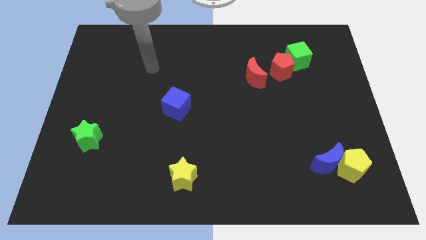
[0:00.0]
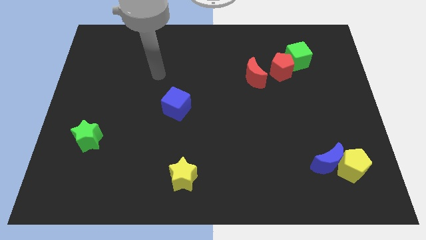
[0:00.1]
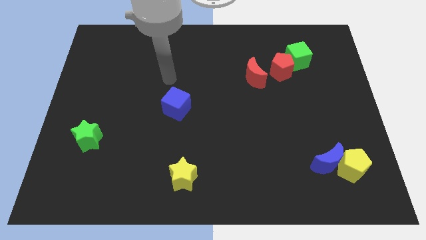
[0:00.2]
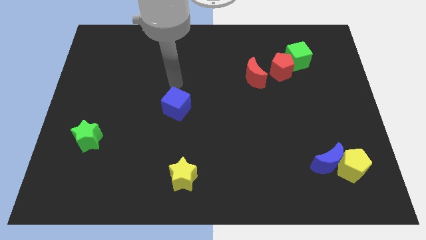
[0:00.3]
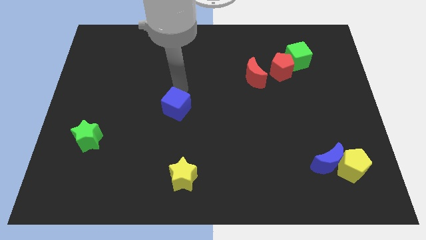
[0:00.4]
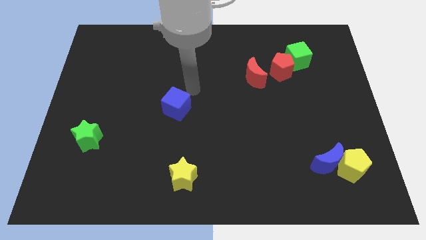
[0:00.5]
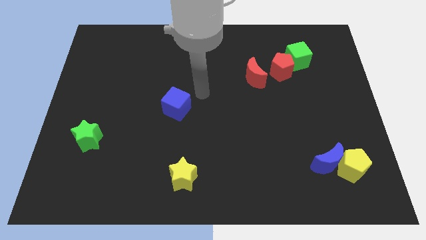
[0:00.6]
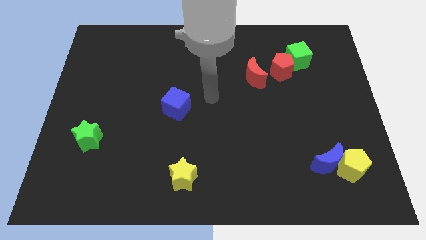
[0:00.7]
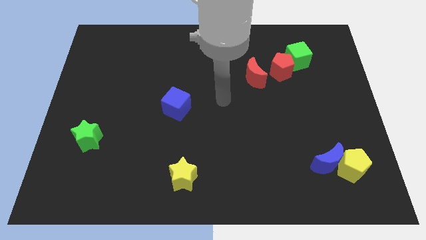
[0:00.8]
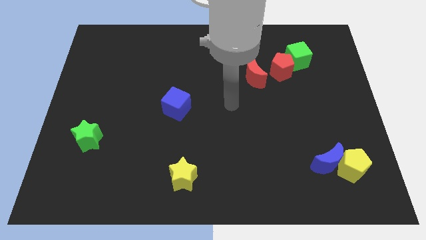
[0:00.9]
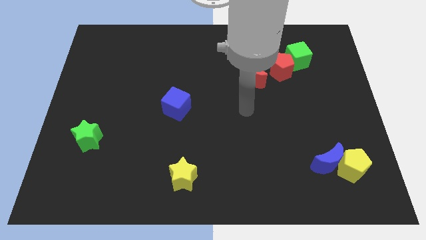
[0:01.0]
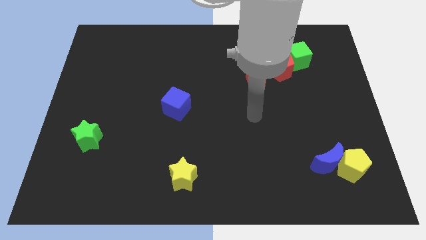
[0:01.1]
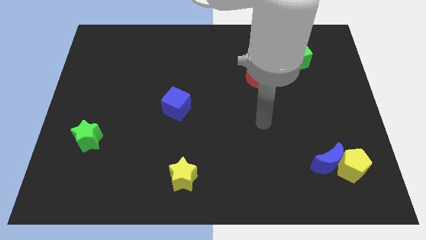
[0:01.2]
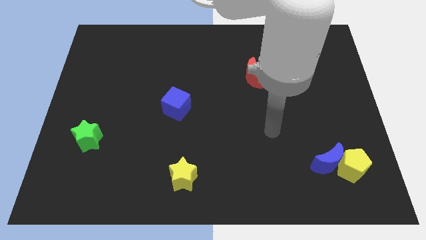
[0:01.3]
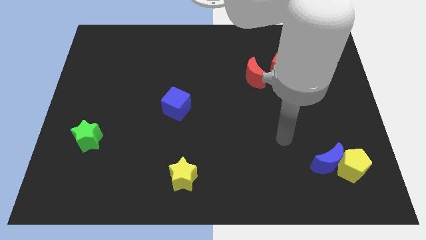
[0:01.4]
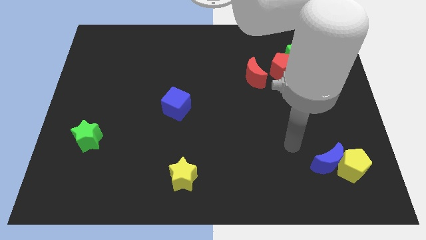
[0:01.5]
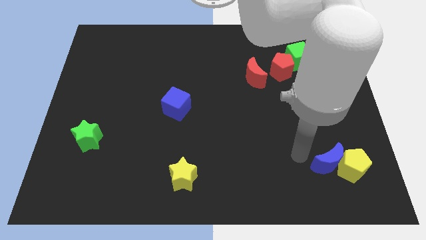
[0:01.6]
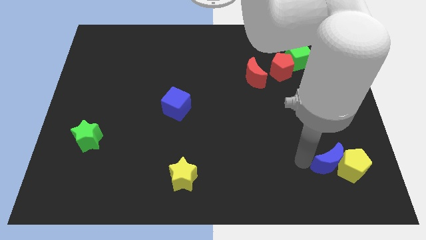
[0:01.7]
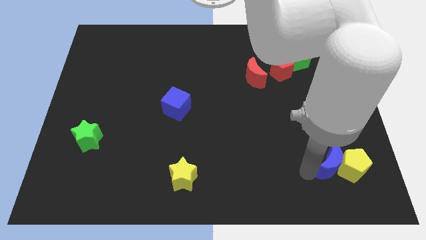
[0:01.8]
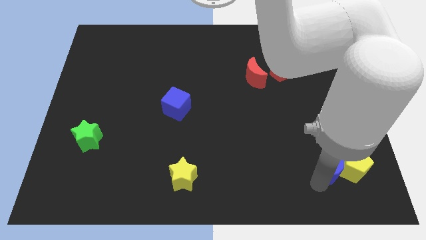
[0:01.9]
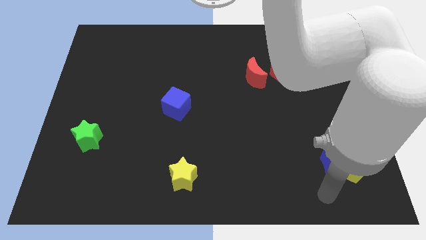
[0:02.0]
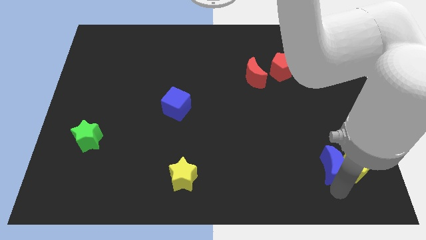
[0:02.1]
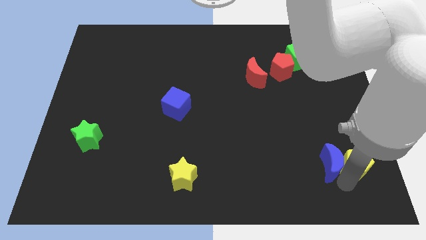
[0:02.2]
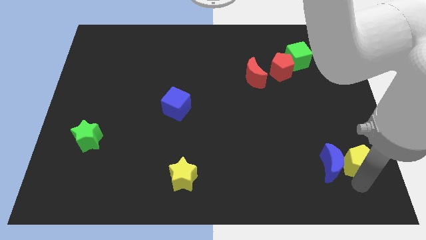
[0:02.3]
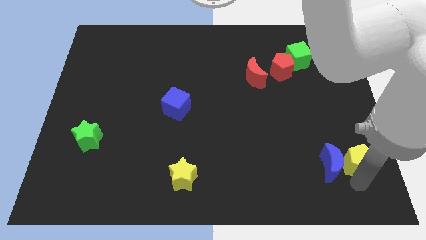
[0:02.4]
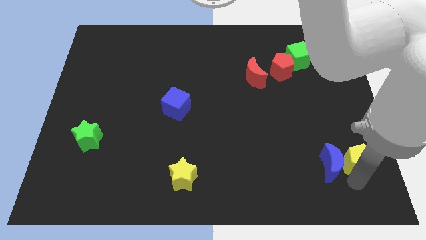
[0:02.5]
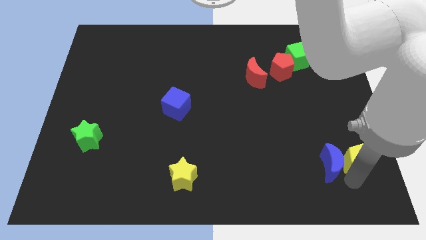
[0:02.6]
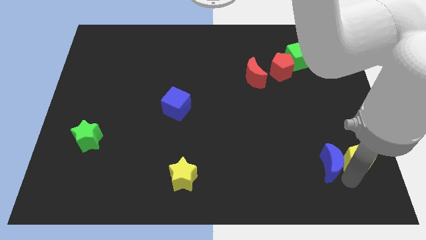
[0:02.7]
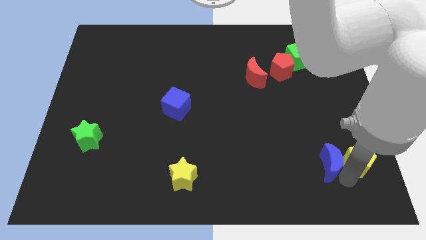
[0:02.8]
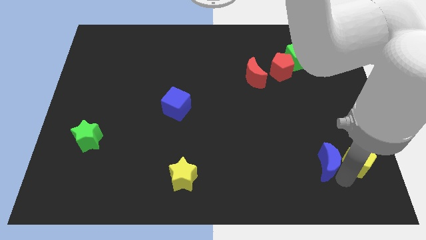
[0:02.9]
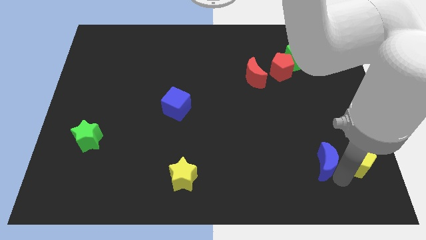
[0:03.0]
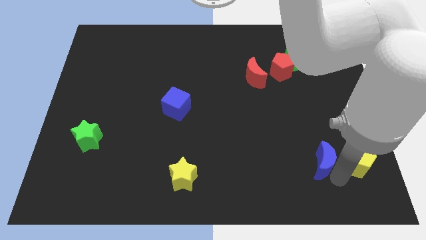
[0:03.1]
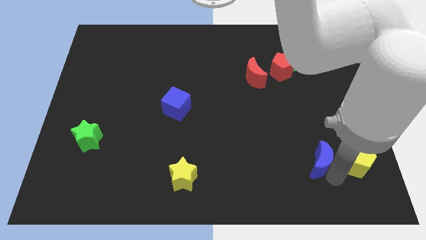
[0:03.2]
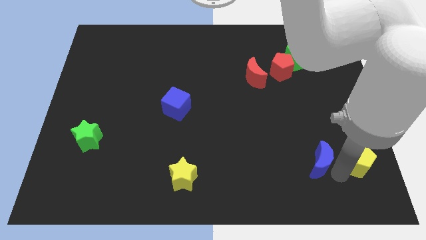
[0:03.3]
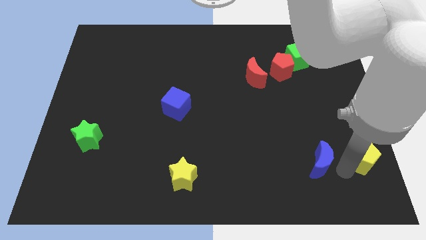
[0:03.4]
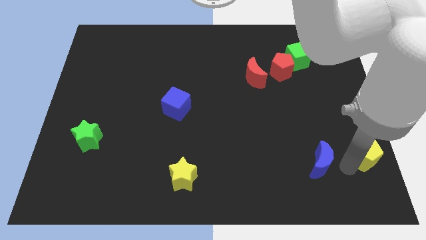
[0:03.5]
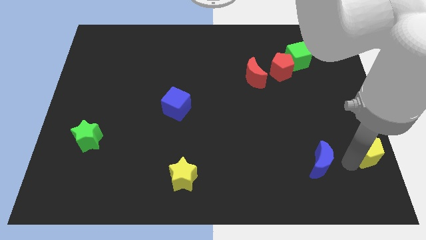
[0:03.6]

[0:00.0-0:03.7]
move the blue moon away from the yellow pentagon

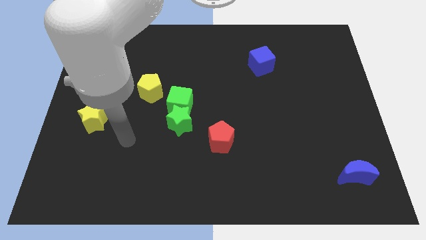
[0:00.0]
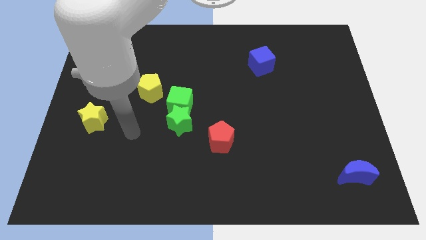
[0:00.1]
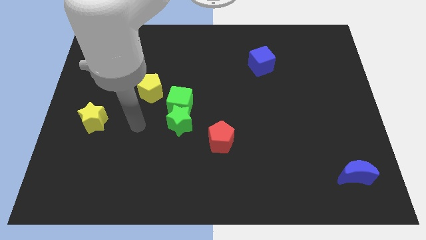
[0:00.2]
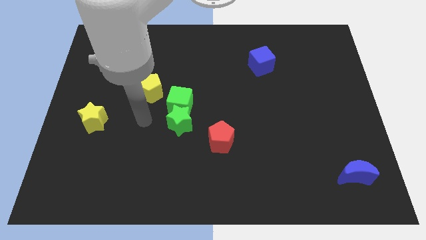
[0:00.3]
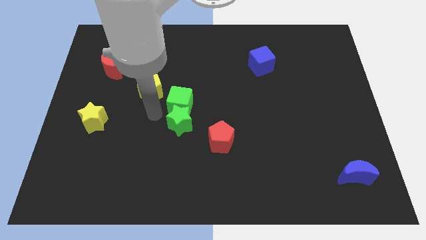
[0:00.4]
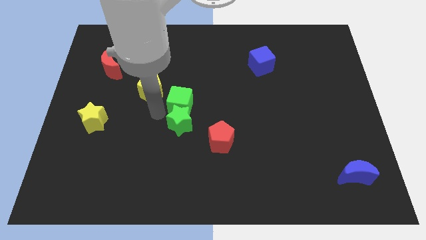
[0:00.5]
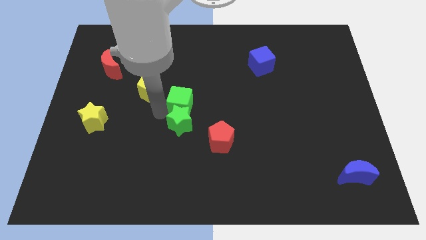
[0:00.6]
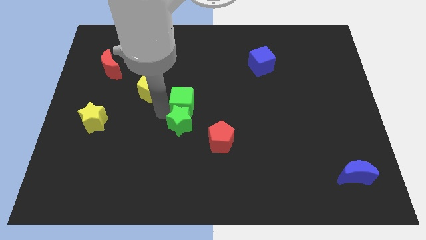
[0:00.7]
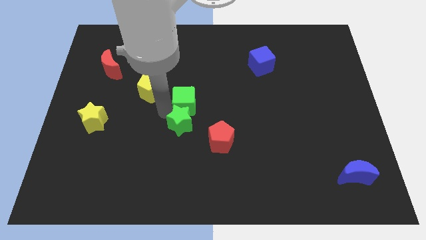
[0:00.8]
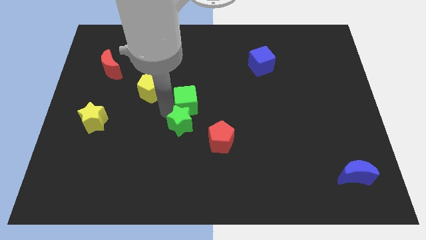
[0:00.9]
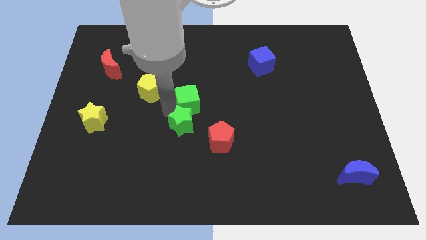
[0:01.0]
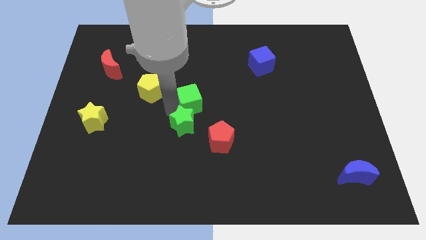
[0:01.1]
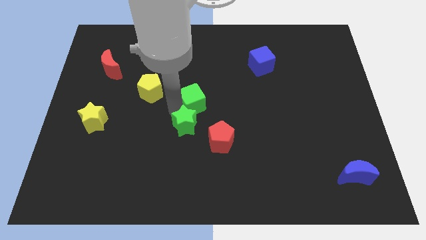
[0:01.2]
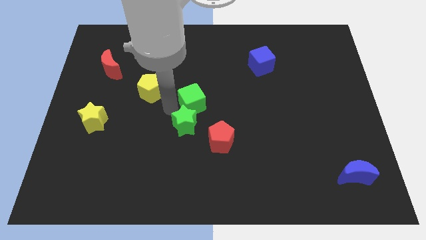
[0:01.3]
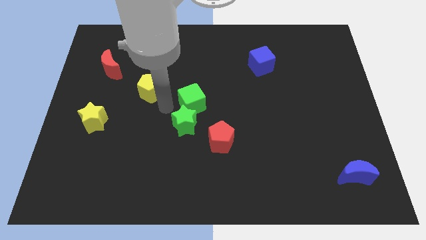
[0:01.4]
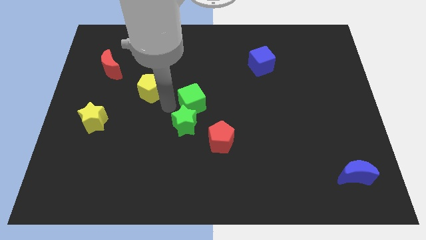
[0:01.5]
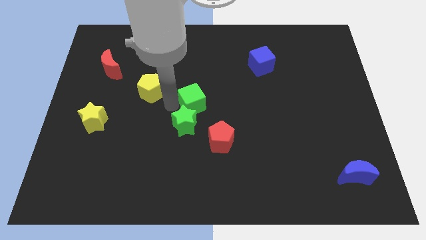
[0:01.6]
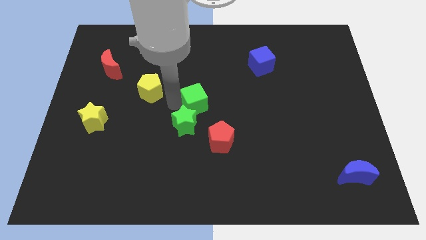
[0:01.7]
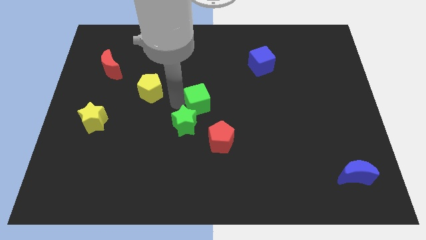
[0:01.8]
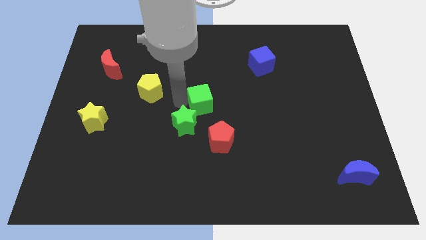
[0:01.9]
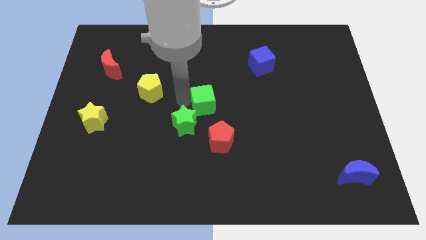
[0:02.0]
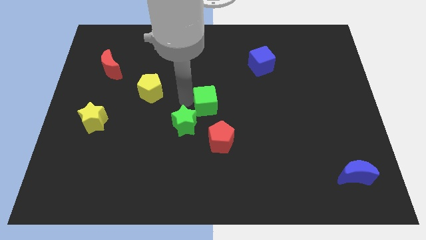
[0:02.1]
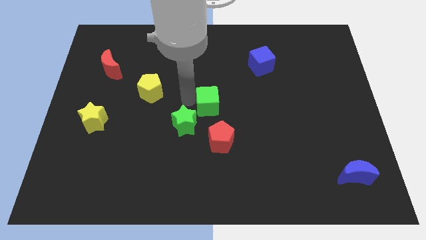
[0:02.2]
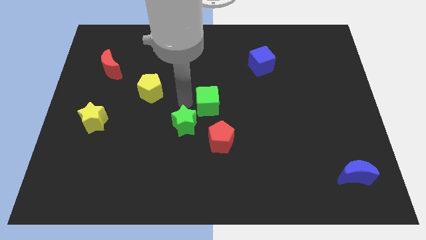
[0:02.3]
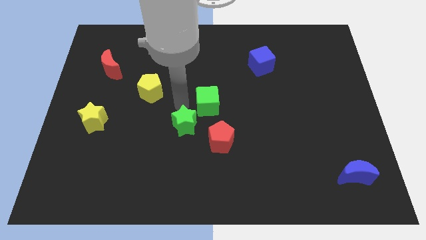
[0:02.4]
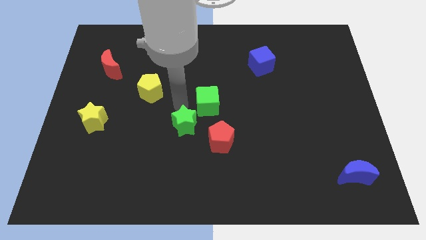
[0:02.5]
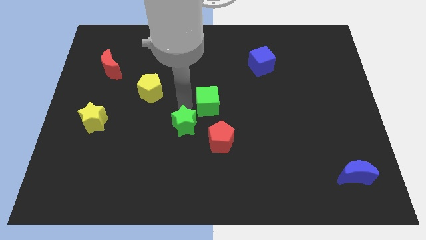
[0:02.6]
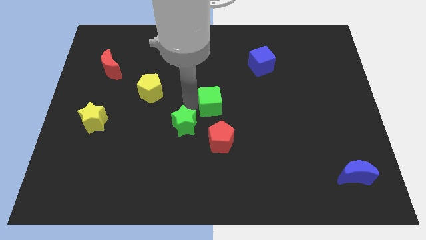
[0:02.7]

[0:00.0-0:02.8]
pull the green cube apart from the green star and yellow pentagon

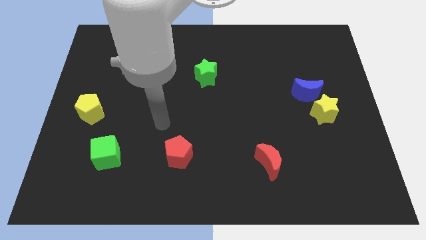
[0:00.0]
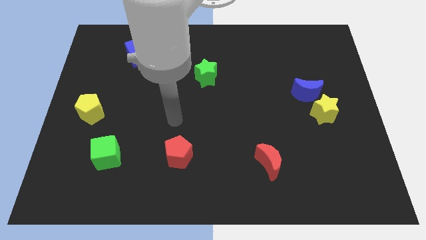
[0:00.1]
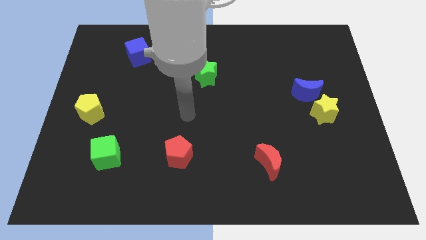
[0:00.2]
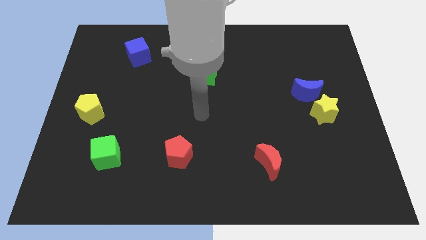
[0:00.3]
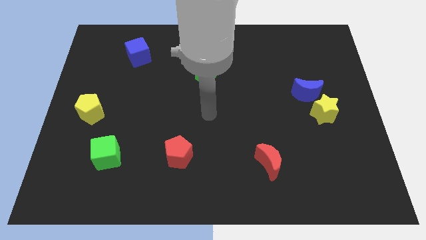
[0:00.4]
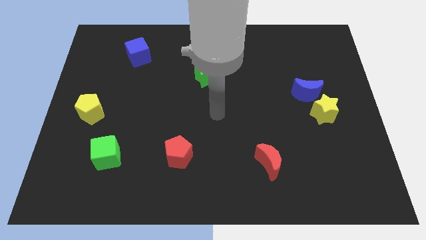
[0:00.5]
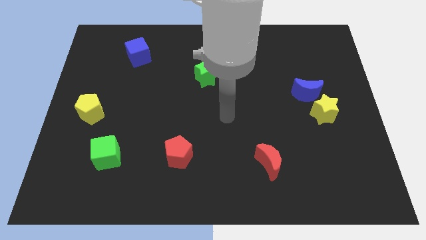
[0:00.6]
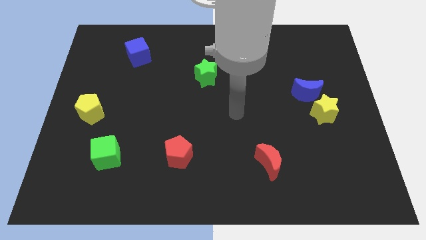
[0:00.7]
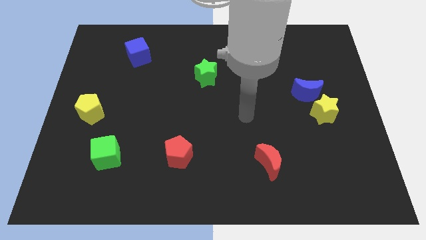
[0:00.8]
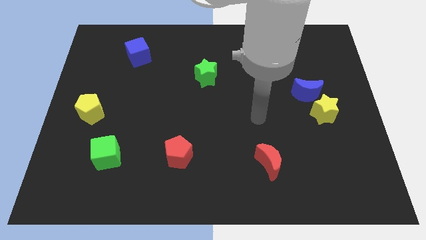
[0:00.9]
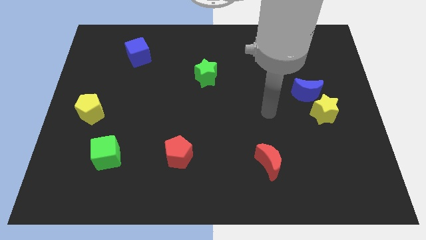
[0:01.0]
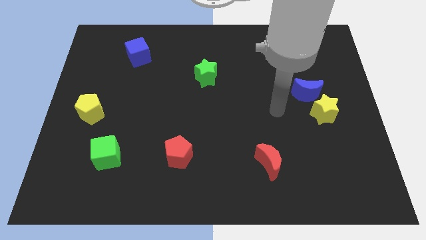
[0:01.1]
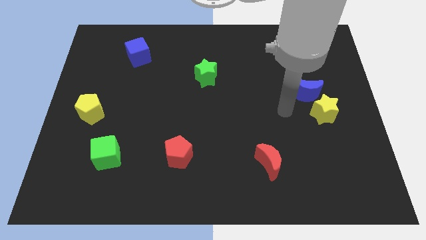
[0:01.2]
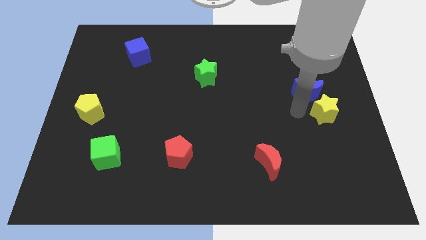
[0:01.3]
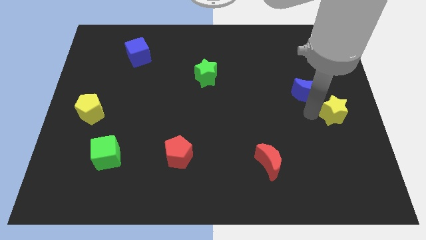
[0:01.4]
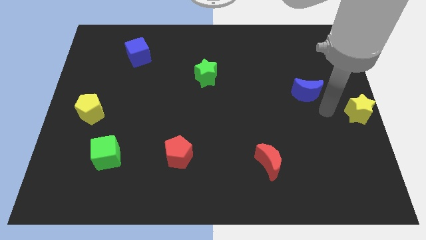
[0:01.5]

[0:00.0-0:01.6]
pull the blue moon apart from the yellow star

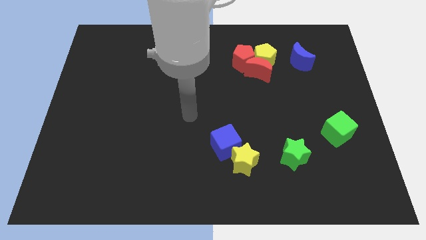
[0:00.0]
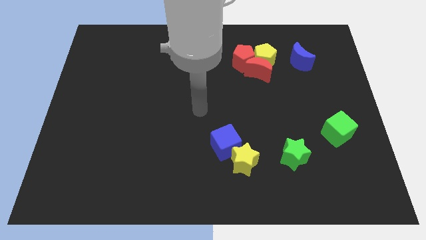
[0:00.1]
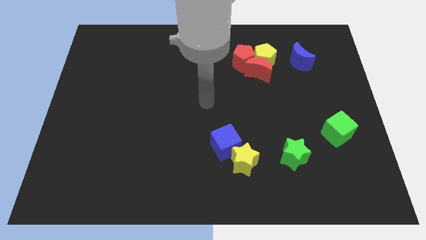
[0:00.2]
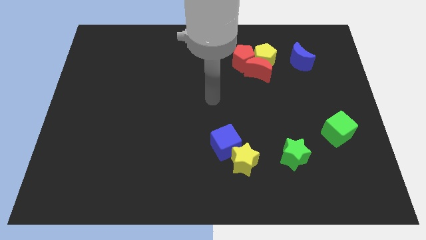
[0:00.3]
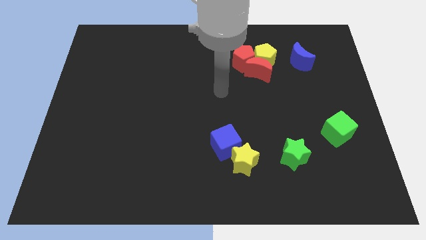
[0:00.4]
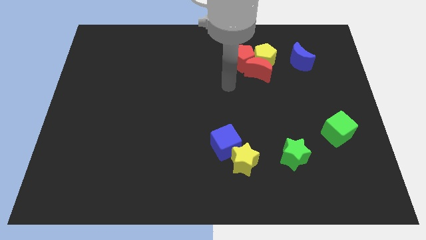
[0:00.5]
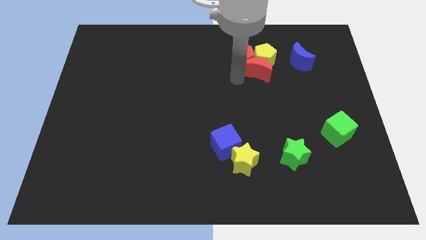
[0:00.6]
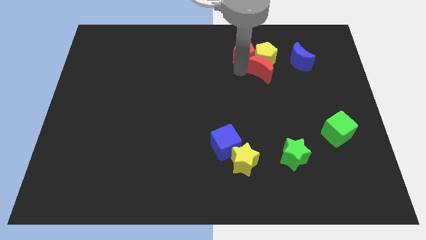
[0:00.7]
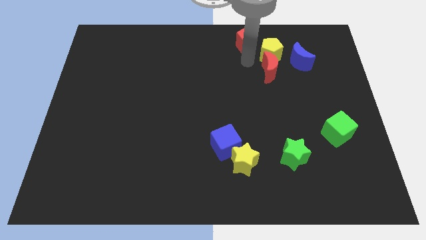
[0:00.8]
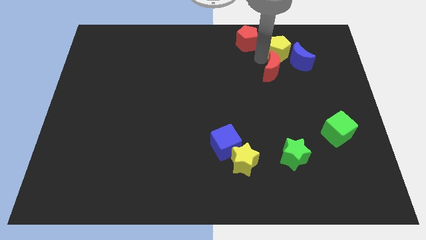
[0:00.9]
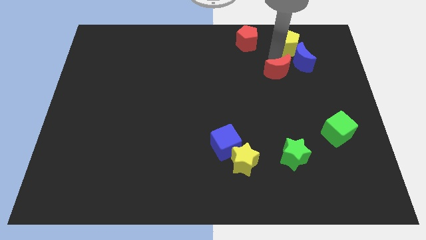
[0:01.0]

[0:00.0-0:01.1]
separate the red moon from the yellow pentagon and red pentagon

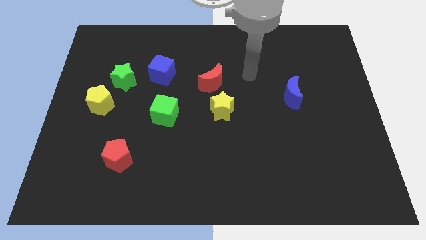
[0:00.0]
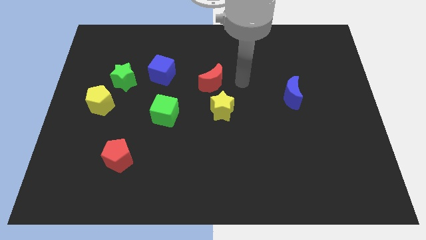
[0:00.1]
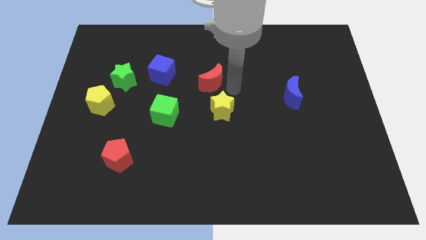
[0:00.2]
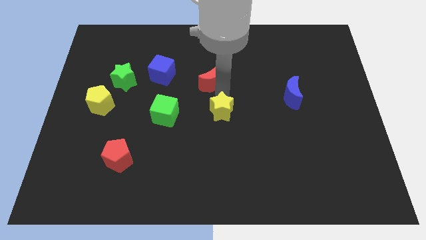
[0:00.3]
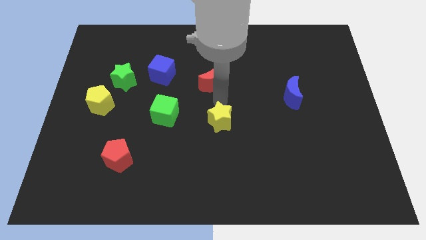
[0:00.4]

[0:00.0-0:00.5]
move the red moon away from the yellow star
